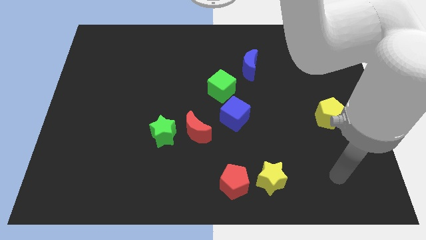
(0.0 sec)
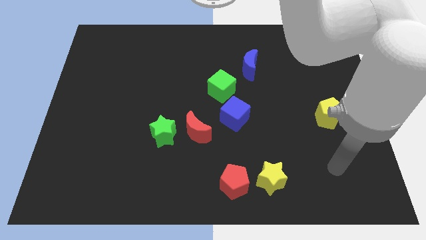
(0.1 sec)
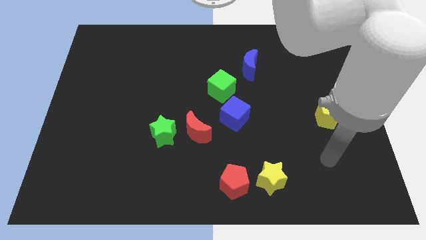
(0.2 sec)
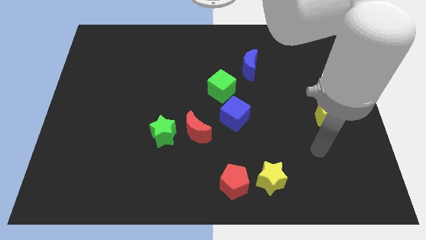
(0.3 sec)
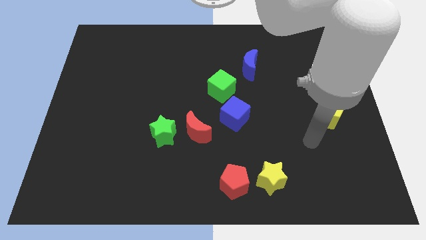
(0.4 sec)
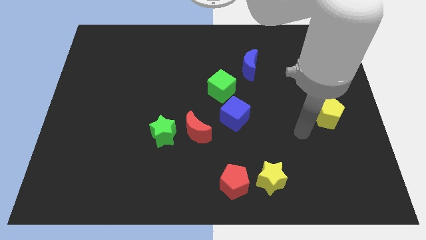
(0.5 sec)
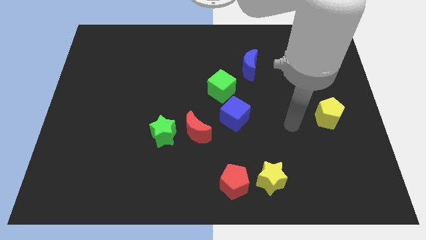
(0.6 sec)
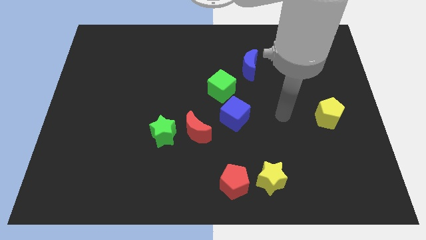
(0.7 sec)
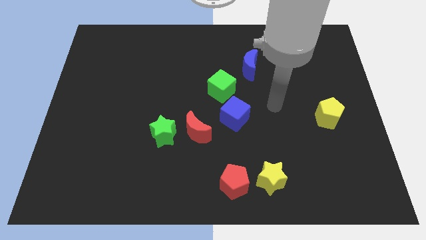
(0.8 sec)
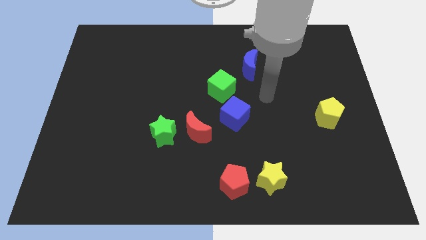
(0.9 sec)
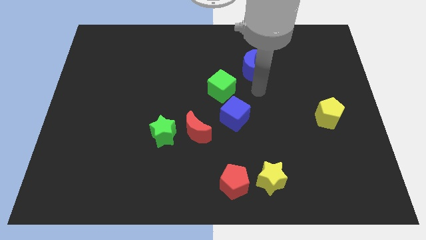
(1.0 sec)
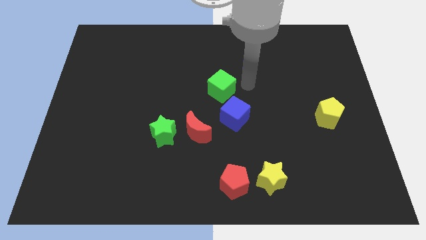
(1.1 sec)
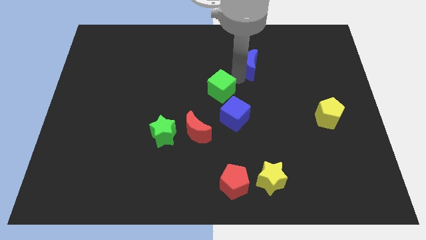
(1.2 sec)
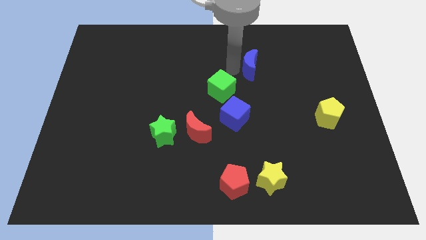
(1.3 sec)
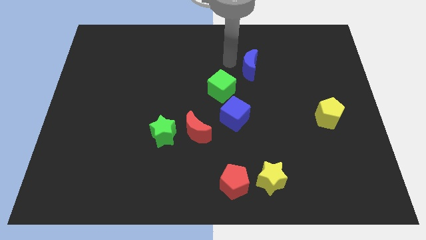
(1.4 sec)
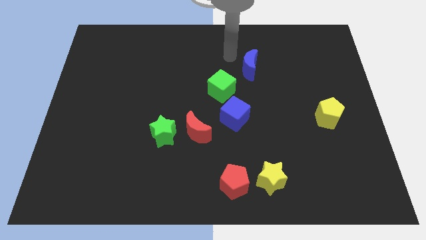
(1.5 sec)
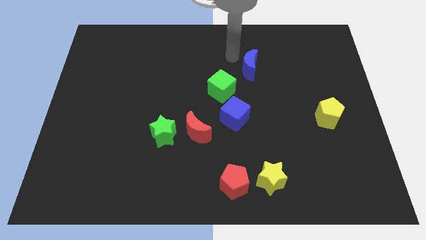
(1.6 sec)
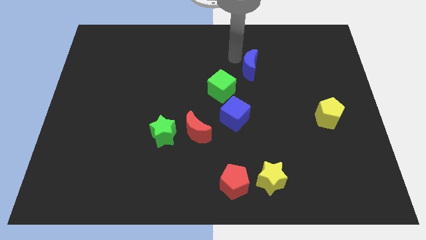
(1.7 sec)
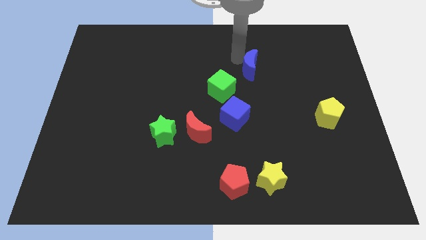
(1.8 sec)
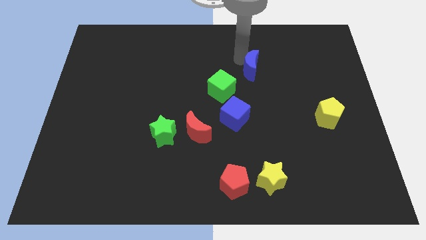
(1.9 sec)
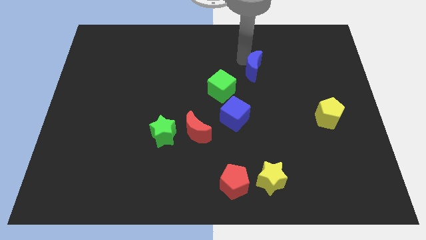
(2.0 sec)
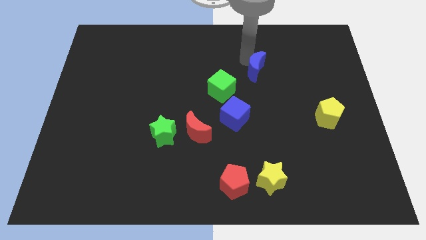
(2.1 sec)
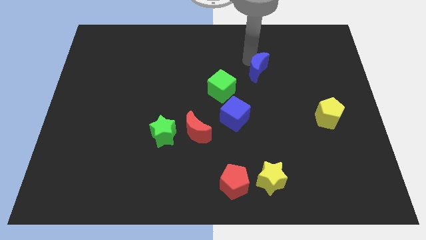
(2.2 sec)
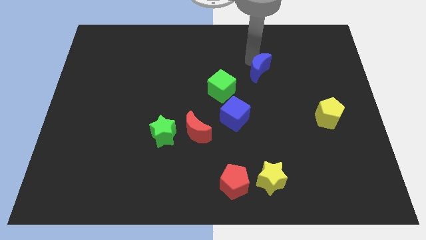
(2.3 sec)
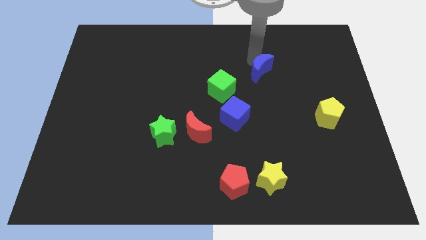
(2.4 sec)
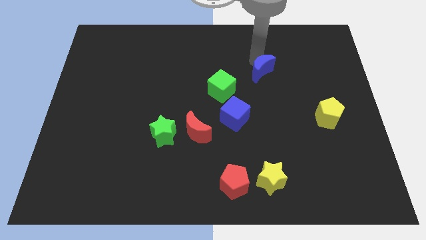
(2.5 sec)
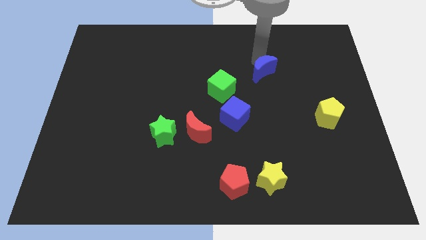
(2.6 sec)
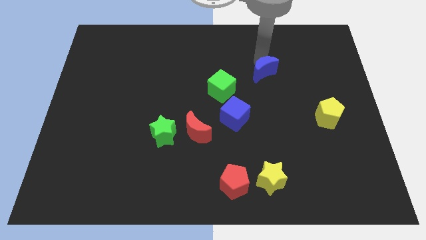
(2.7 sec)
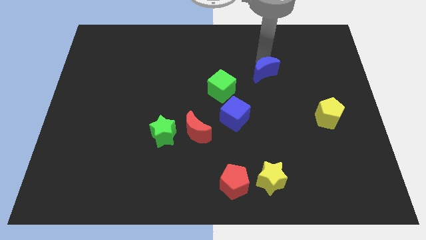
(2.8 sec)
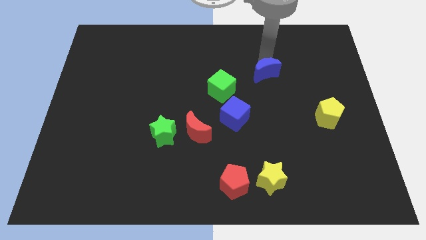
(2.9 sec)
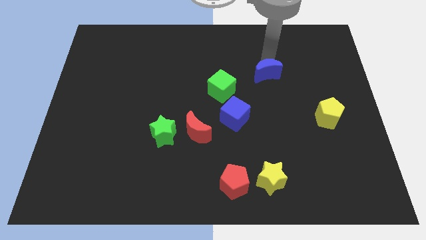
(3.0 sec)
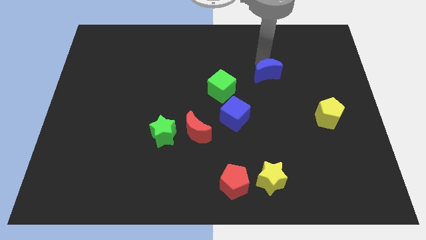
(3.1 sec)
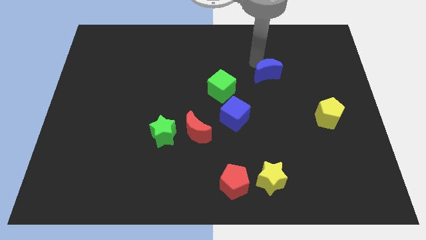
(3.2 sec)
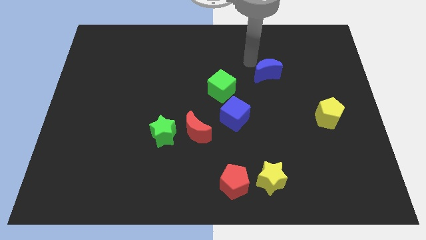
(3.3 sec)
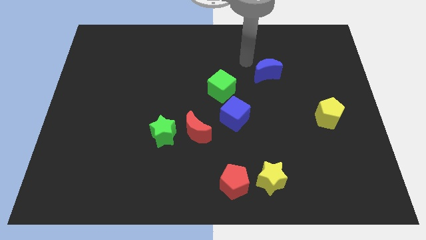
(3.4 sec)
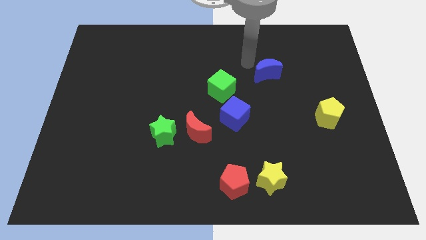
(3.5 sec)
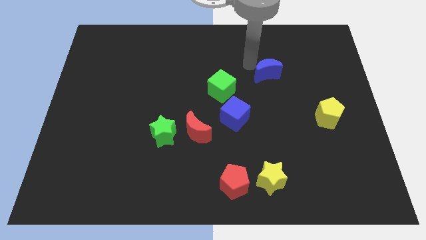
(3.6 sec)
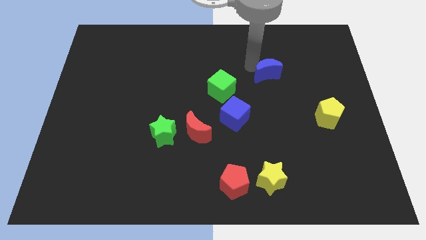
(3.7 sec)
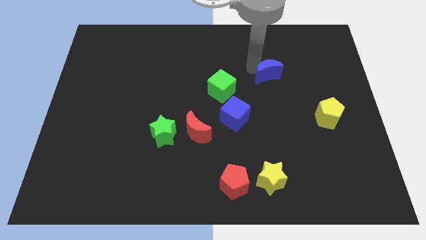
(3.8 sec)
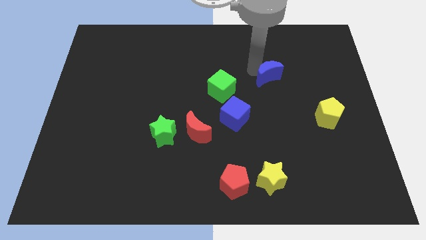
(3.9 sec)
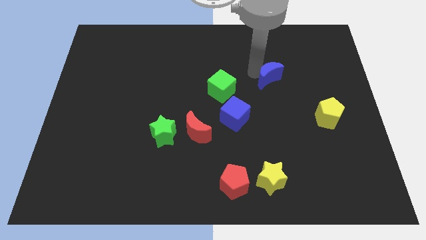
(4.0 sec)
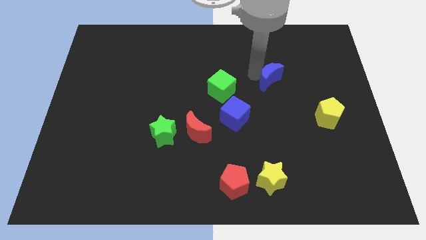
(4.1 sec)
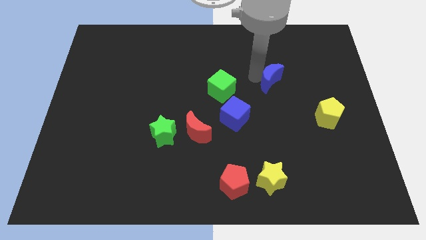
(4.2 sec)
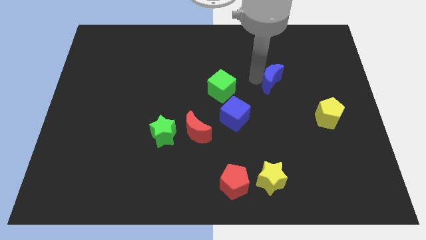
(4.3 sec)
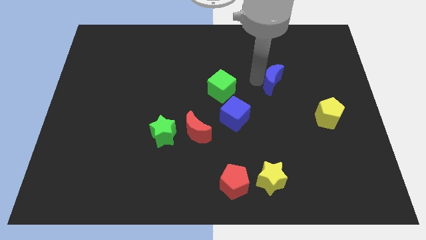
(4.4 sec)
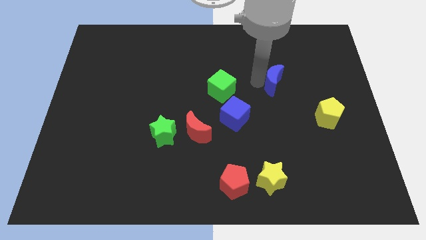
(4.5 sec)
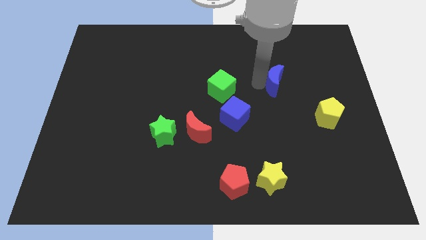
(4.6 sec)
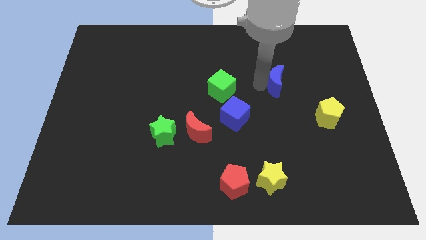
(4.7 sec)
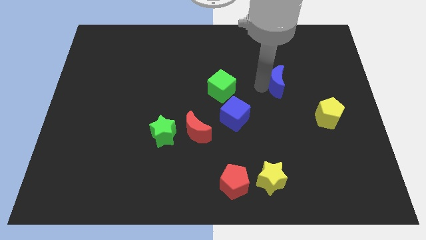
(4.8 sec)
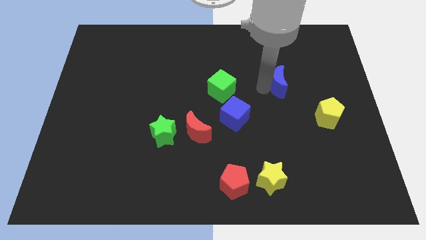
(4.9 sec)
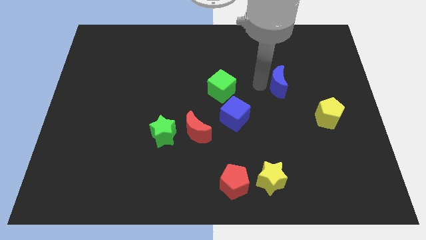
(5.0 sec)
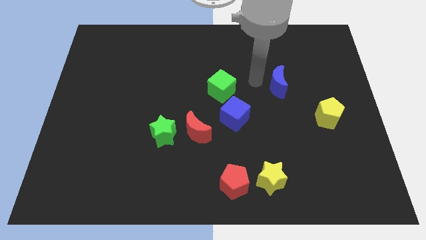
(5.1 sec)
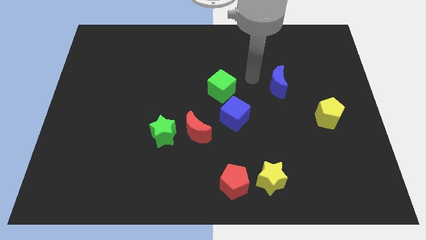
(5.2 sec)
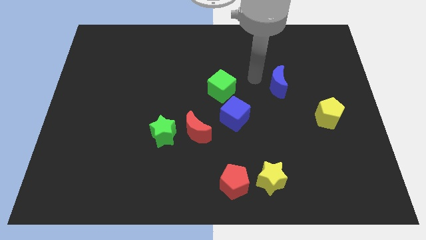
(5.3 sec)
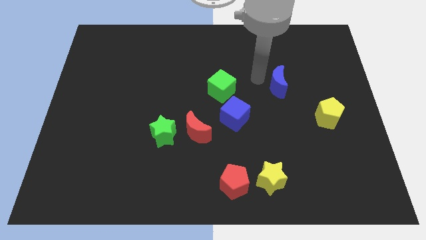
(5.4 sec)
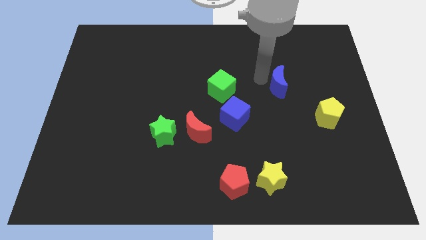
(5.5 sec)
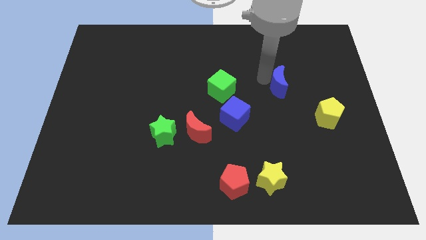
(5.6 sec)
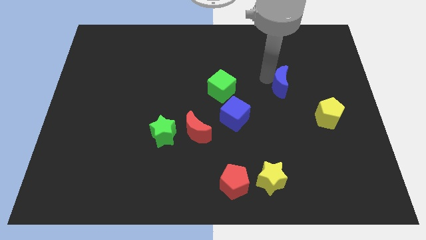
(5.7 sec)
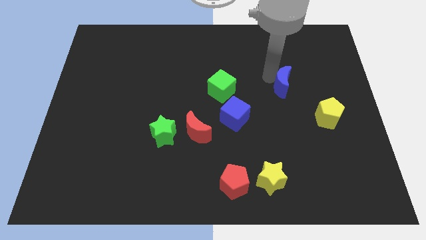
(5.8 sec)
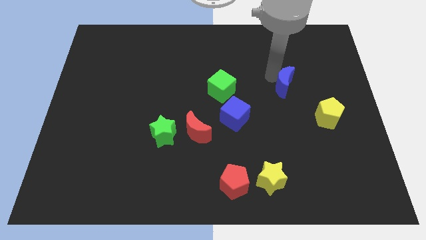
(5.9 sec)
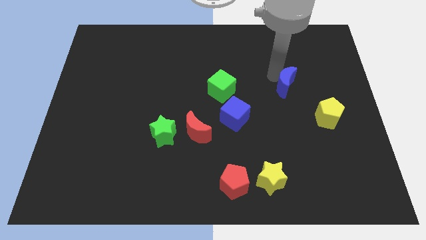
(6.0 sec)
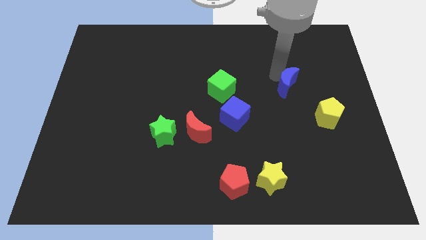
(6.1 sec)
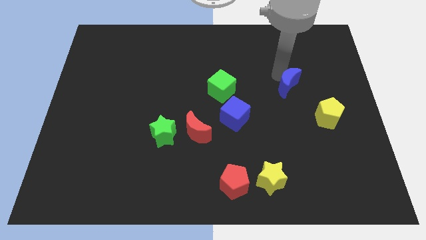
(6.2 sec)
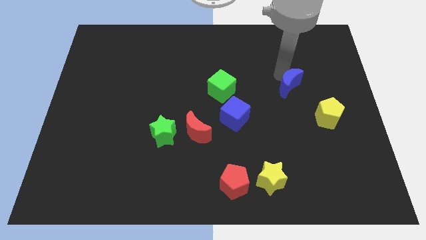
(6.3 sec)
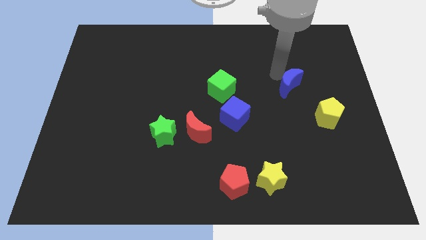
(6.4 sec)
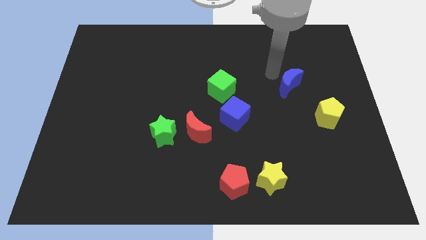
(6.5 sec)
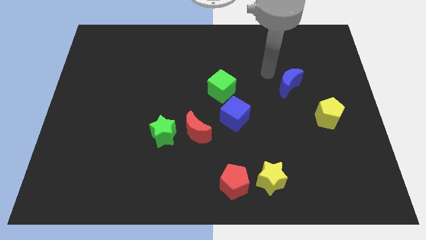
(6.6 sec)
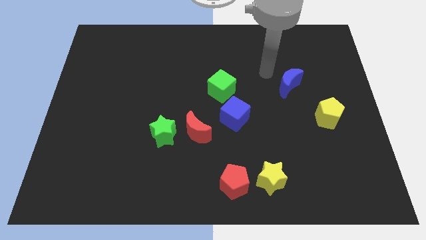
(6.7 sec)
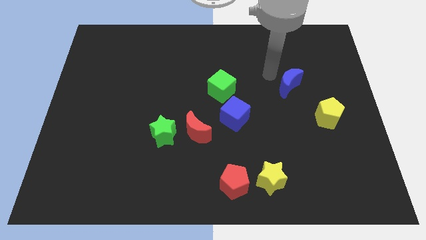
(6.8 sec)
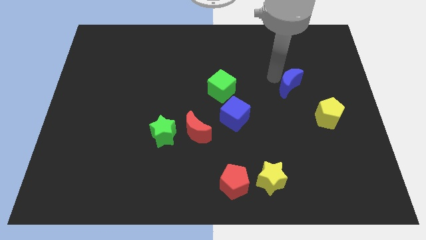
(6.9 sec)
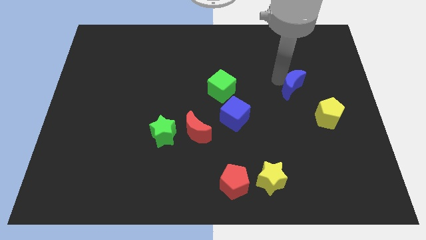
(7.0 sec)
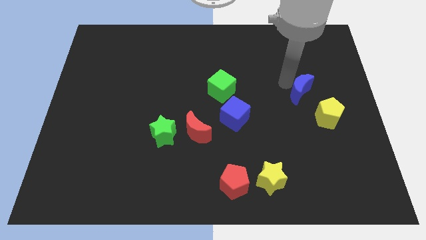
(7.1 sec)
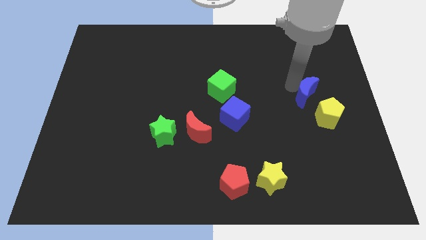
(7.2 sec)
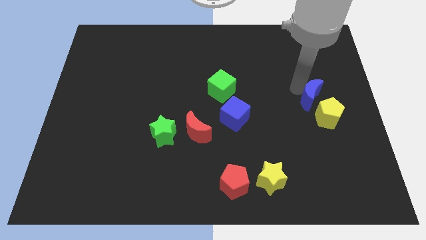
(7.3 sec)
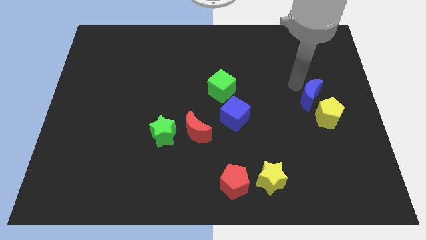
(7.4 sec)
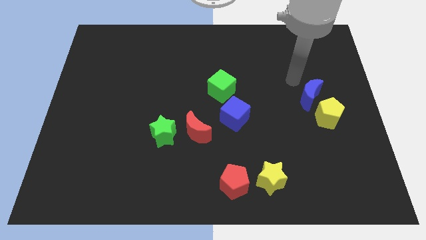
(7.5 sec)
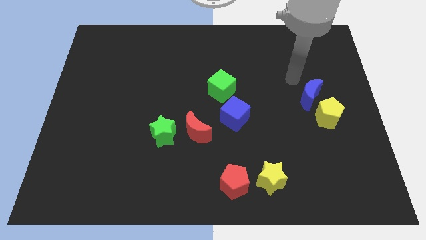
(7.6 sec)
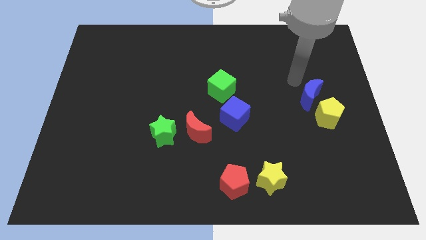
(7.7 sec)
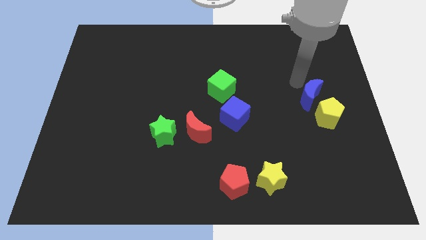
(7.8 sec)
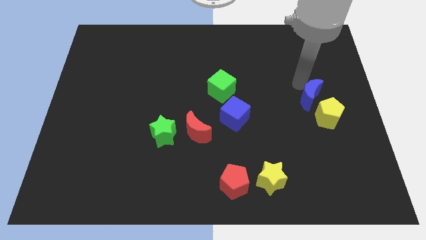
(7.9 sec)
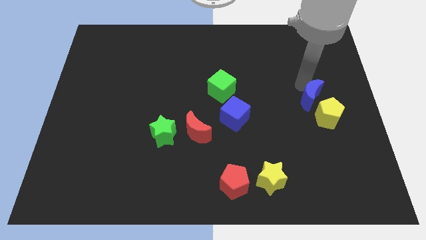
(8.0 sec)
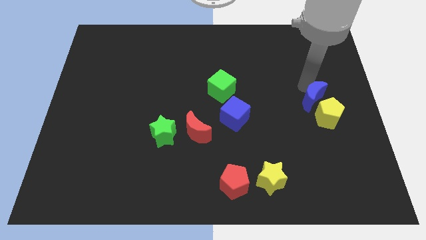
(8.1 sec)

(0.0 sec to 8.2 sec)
move the blue moon close to the yellow pentagon
